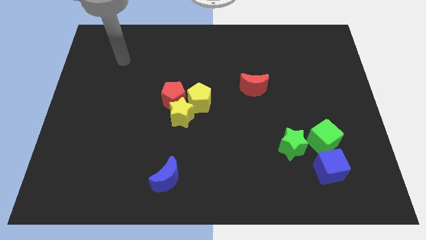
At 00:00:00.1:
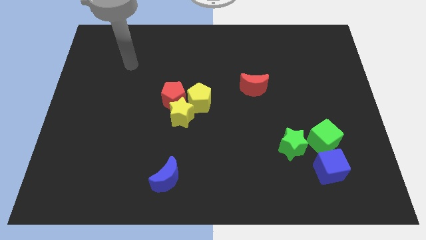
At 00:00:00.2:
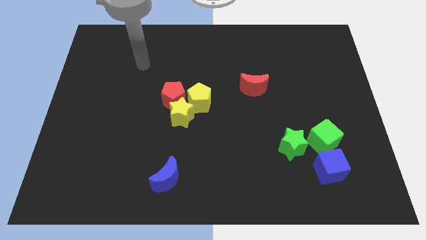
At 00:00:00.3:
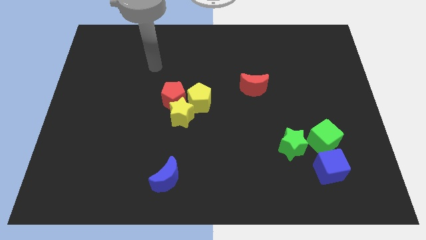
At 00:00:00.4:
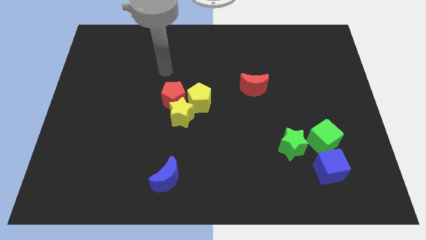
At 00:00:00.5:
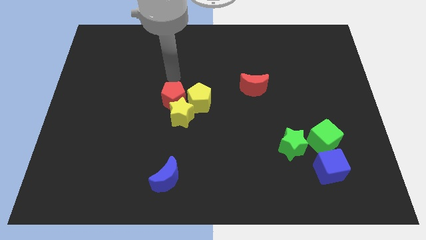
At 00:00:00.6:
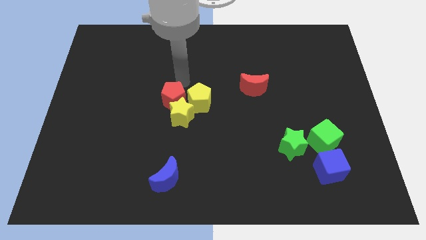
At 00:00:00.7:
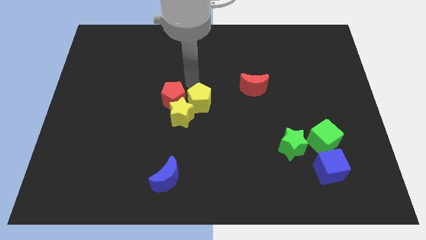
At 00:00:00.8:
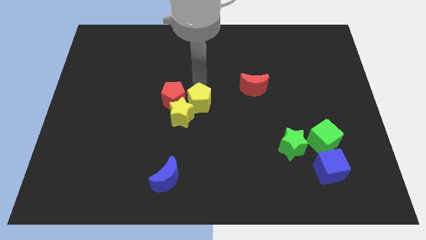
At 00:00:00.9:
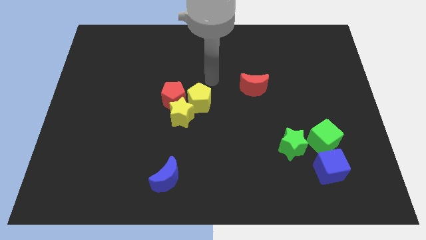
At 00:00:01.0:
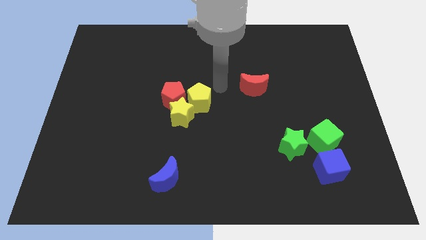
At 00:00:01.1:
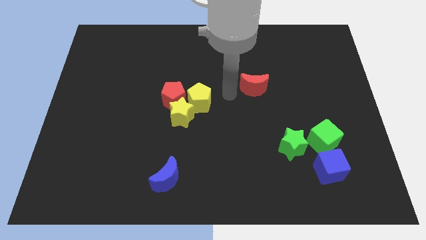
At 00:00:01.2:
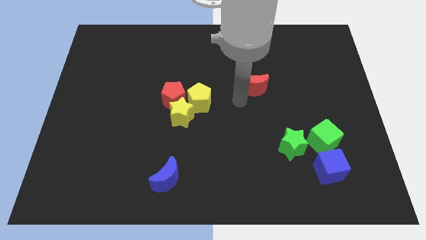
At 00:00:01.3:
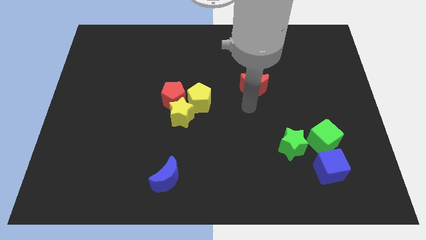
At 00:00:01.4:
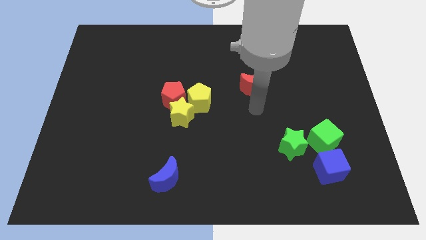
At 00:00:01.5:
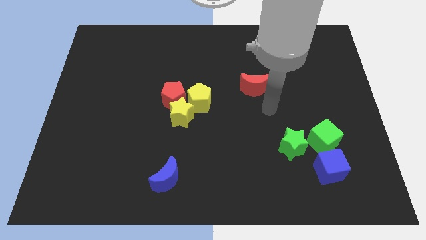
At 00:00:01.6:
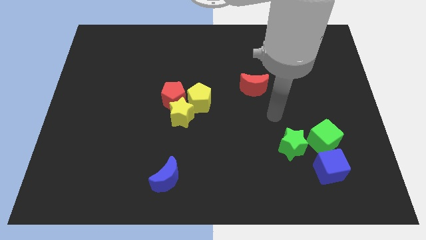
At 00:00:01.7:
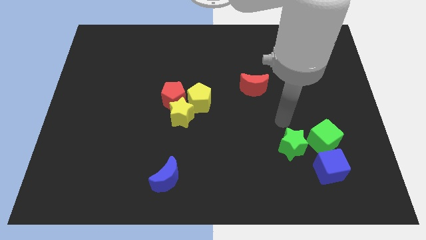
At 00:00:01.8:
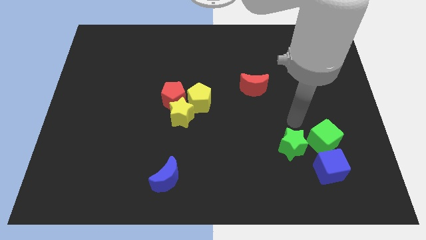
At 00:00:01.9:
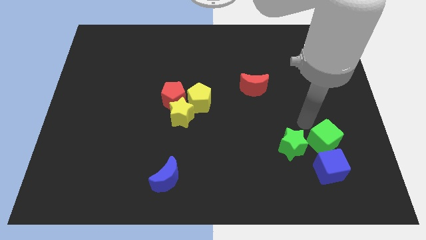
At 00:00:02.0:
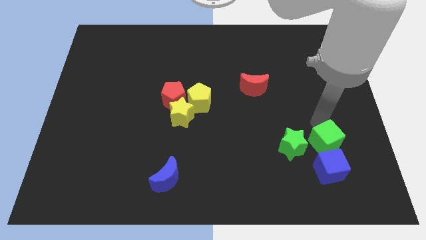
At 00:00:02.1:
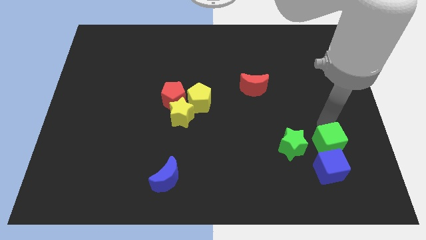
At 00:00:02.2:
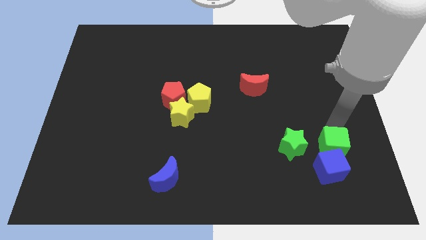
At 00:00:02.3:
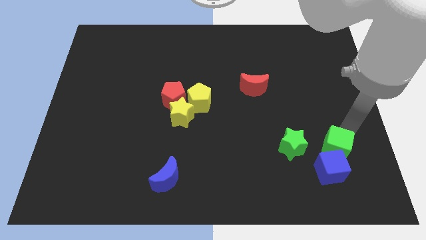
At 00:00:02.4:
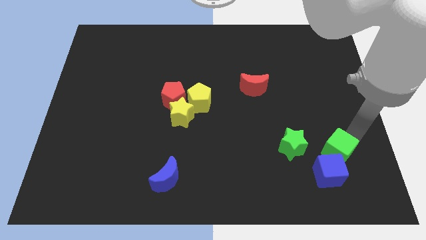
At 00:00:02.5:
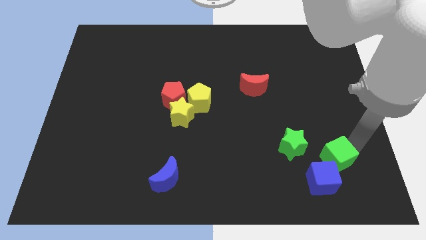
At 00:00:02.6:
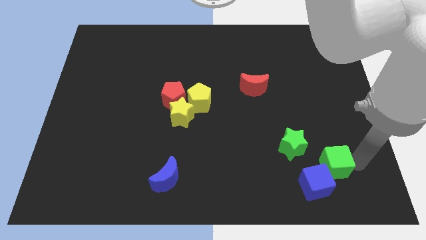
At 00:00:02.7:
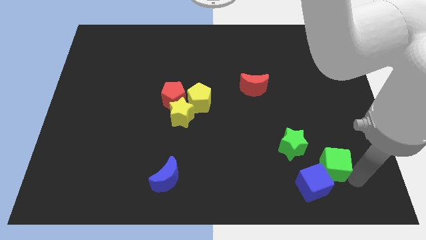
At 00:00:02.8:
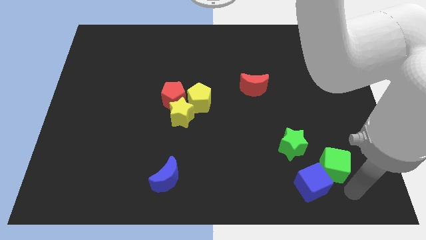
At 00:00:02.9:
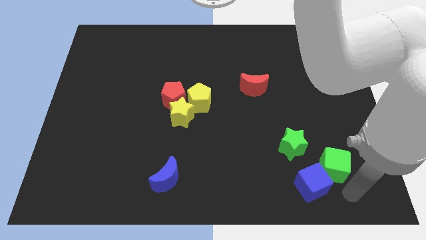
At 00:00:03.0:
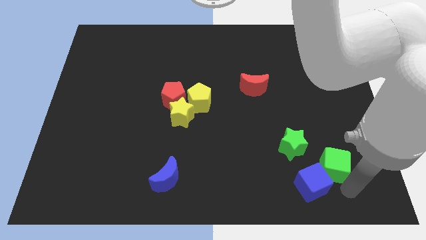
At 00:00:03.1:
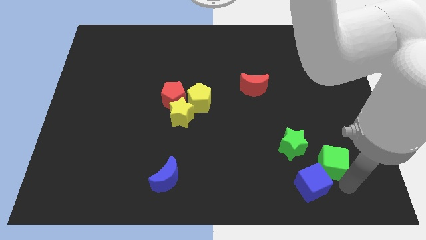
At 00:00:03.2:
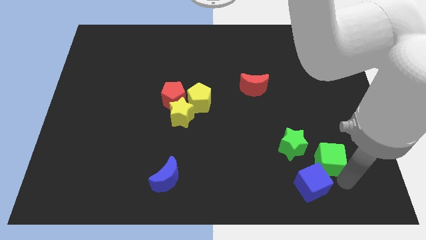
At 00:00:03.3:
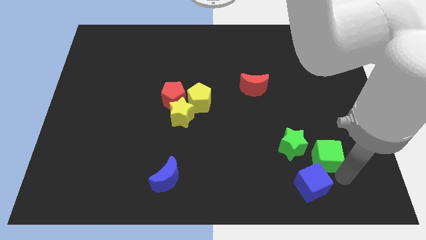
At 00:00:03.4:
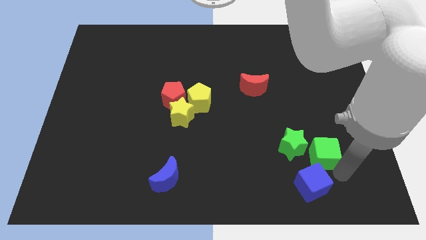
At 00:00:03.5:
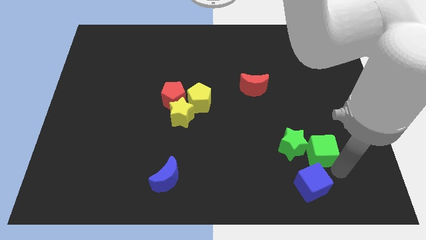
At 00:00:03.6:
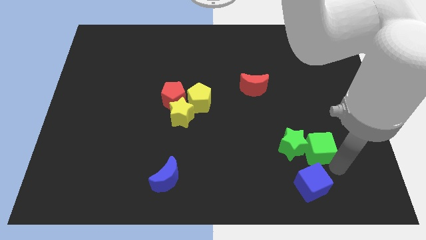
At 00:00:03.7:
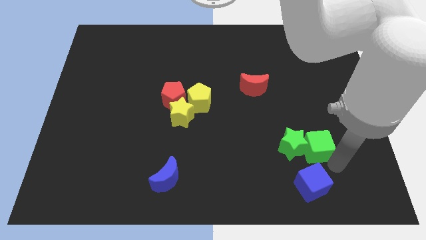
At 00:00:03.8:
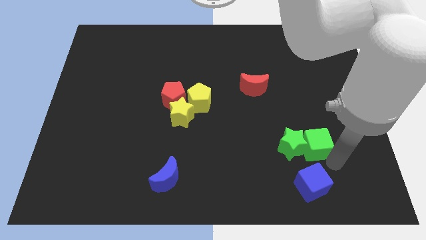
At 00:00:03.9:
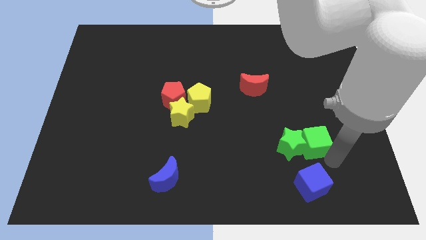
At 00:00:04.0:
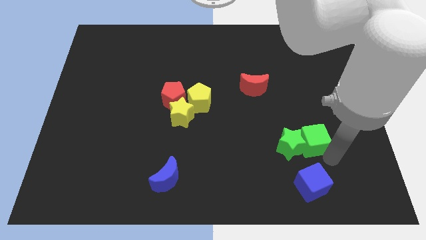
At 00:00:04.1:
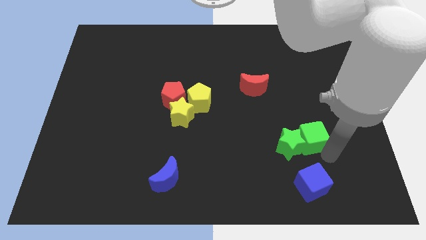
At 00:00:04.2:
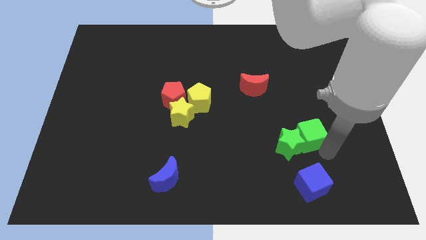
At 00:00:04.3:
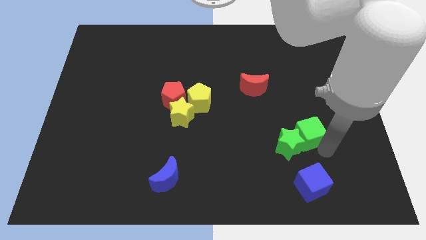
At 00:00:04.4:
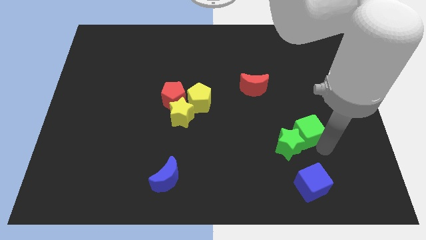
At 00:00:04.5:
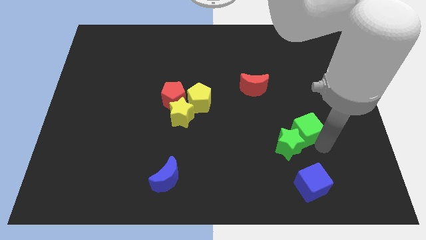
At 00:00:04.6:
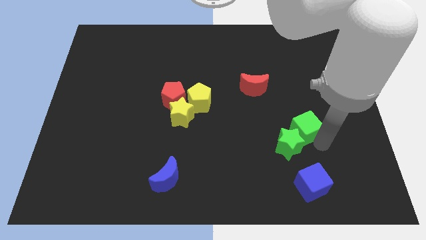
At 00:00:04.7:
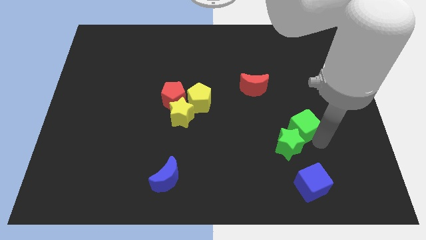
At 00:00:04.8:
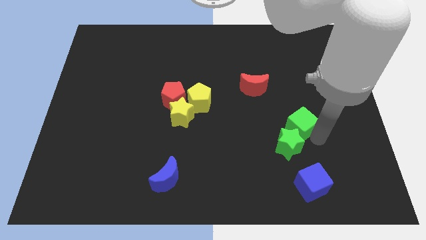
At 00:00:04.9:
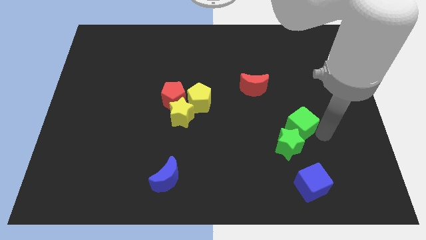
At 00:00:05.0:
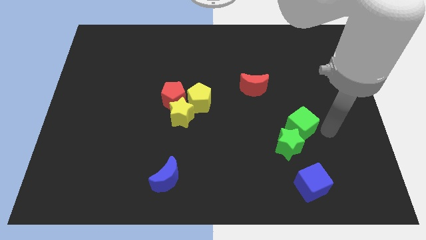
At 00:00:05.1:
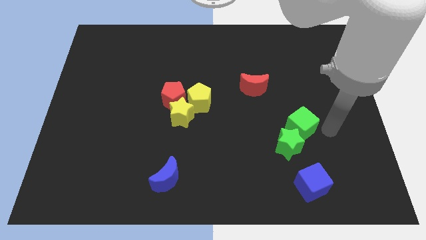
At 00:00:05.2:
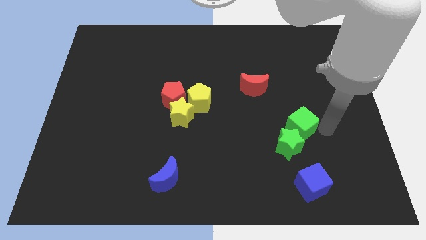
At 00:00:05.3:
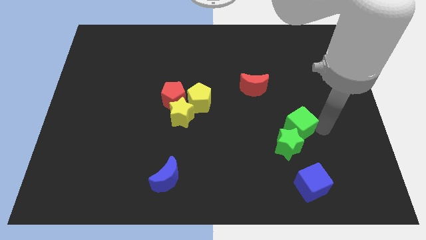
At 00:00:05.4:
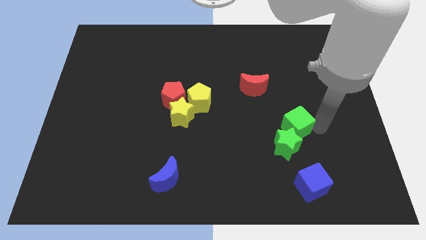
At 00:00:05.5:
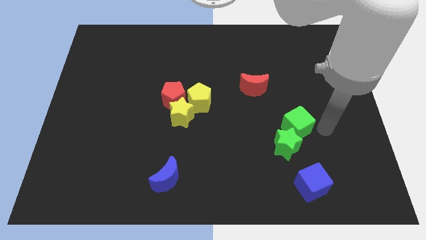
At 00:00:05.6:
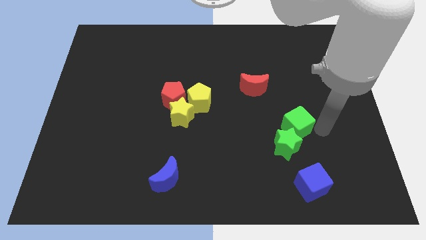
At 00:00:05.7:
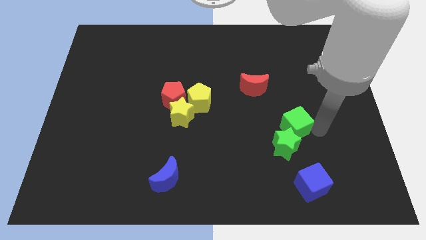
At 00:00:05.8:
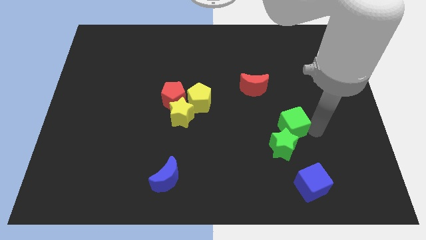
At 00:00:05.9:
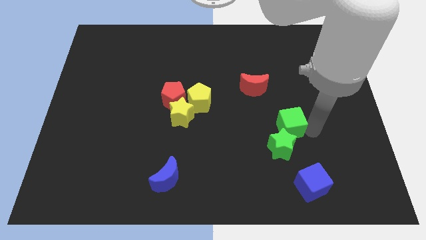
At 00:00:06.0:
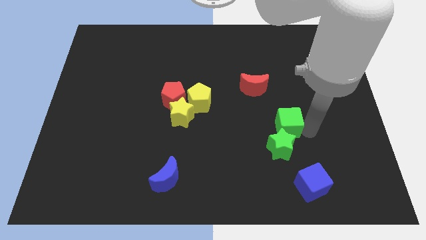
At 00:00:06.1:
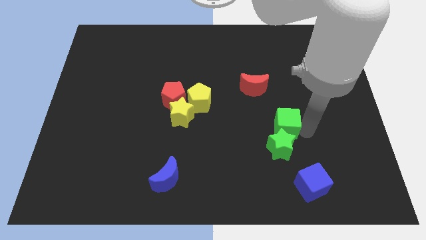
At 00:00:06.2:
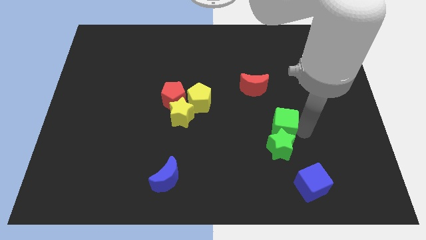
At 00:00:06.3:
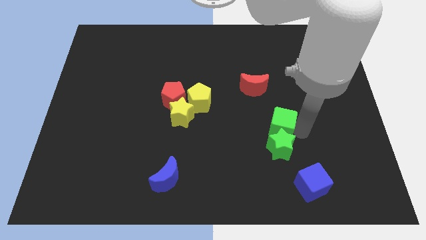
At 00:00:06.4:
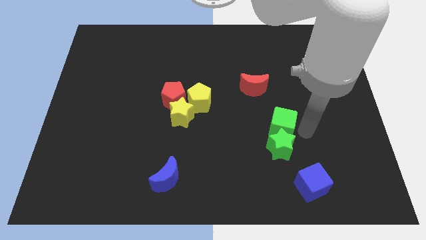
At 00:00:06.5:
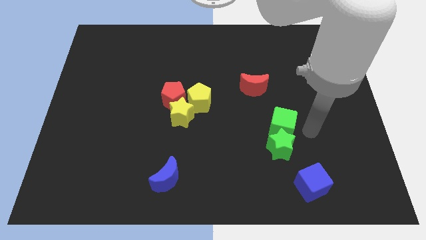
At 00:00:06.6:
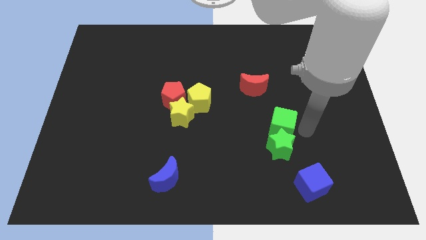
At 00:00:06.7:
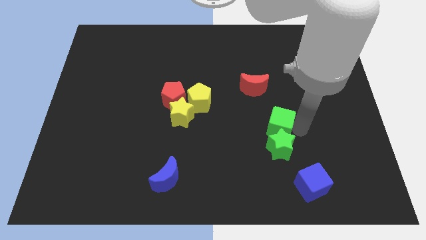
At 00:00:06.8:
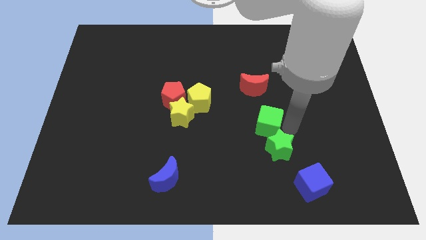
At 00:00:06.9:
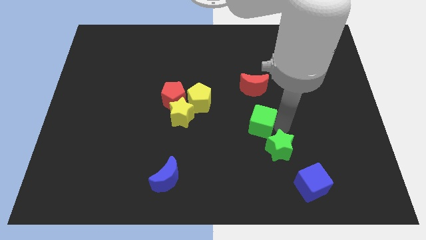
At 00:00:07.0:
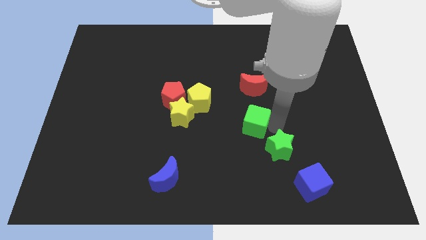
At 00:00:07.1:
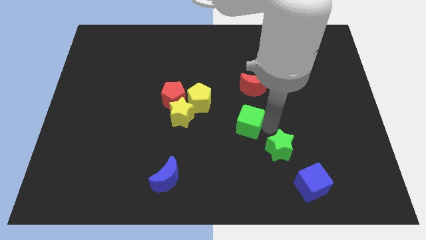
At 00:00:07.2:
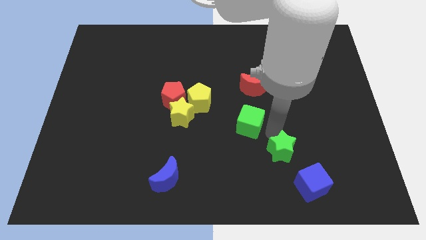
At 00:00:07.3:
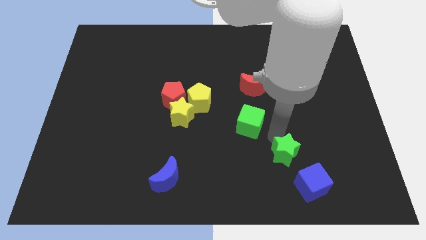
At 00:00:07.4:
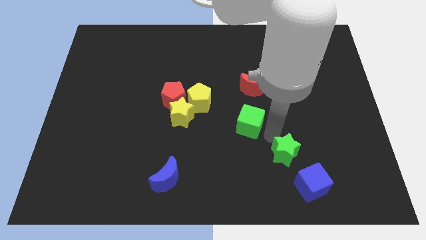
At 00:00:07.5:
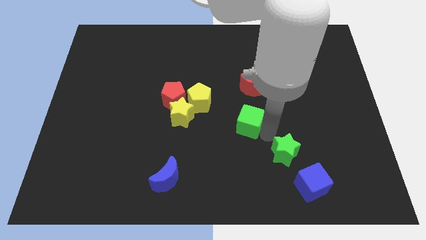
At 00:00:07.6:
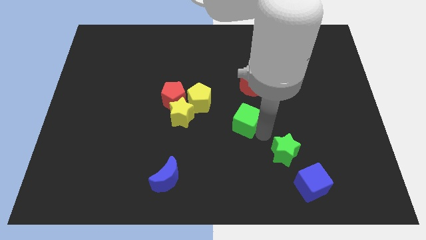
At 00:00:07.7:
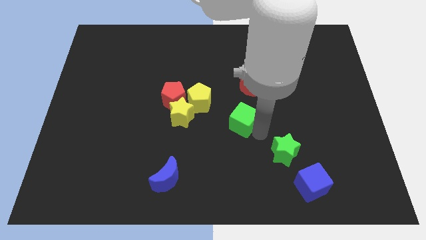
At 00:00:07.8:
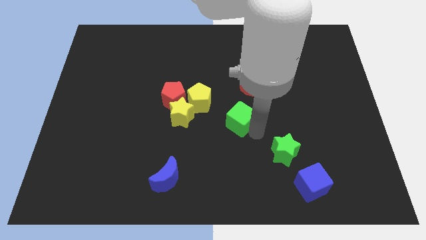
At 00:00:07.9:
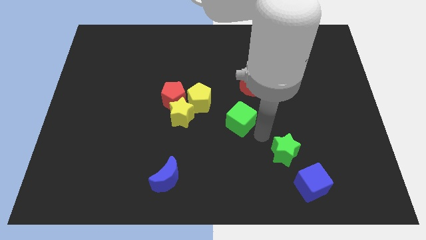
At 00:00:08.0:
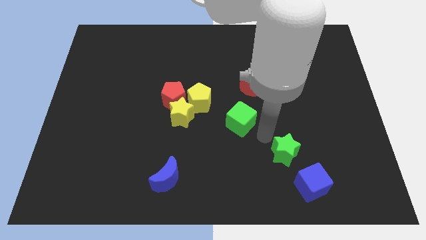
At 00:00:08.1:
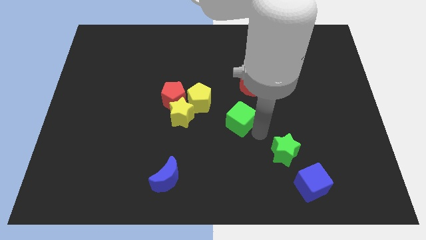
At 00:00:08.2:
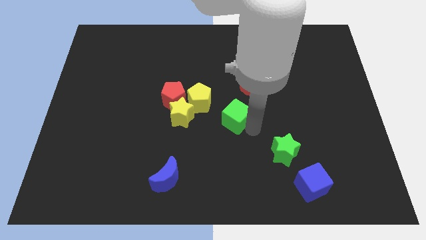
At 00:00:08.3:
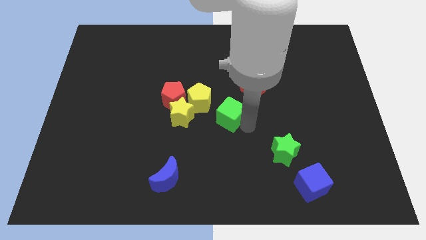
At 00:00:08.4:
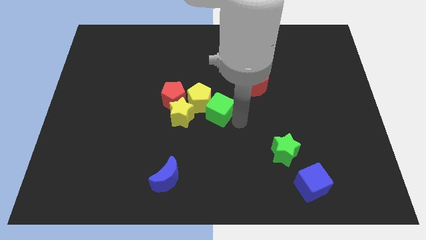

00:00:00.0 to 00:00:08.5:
slide the green cube next to the yellow pentagon
